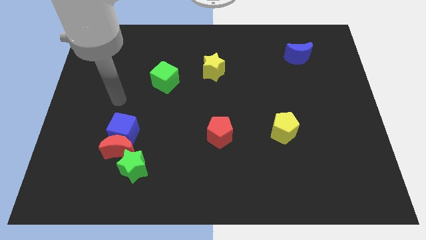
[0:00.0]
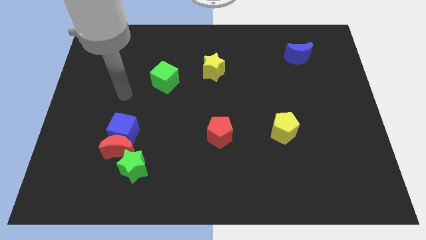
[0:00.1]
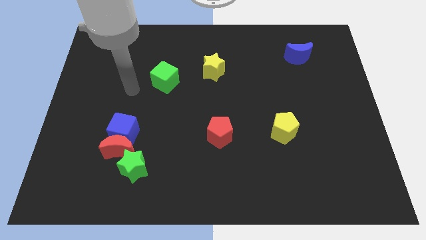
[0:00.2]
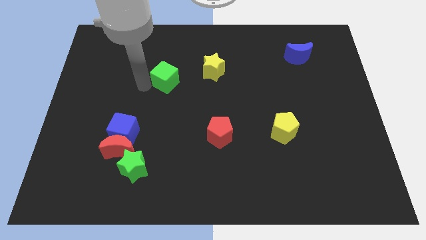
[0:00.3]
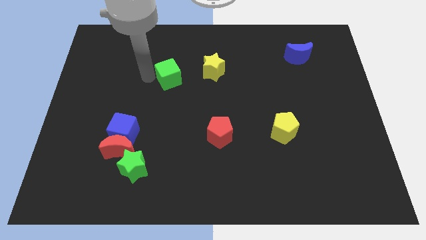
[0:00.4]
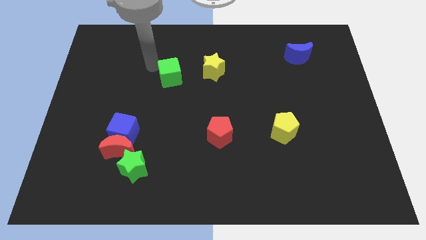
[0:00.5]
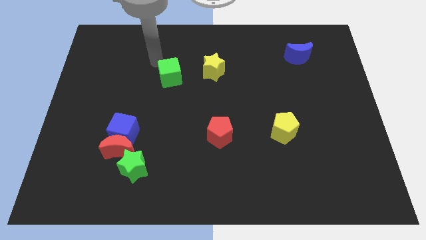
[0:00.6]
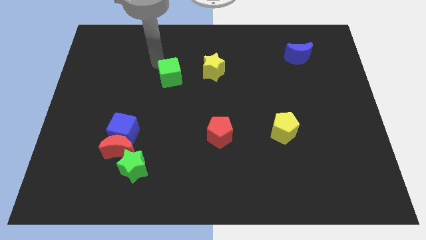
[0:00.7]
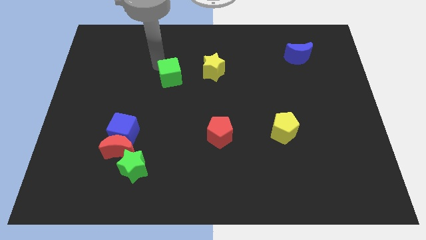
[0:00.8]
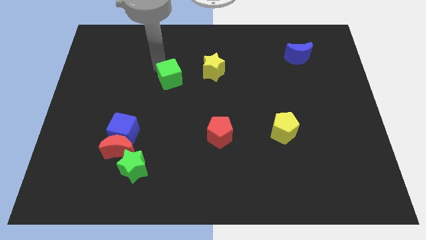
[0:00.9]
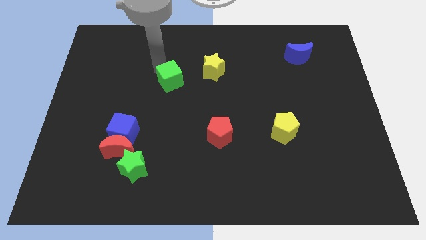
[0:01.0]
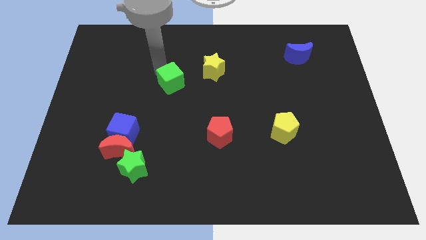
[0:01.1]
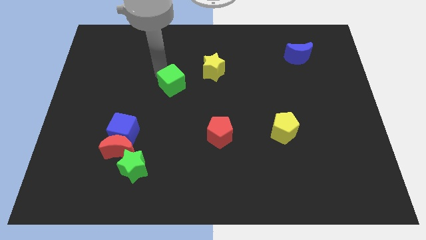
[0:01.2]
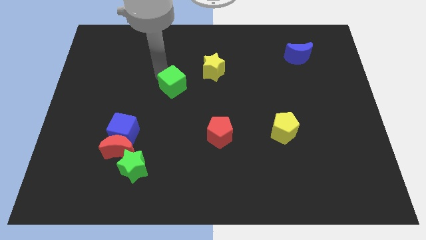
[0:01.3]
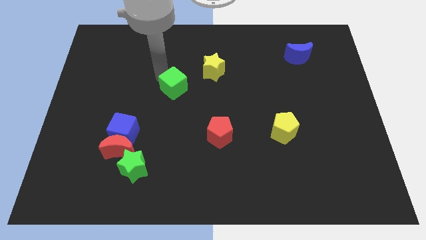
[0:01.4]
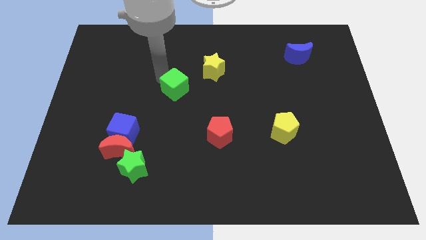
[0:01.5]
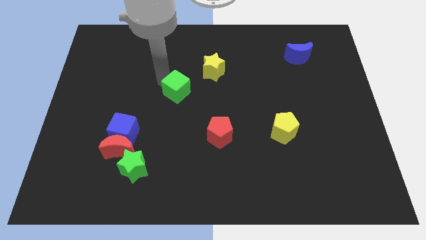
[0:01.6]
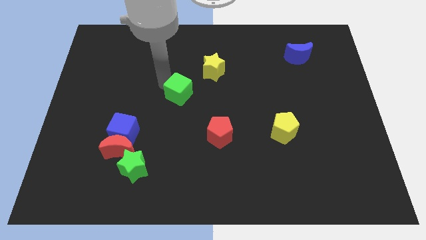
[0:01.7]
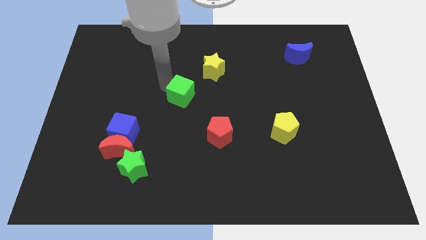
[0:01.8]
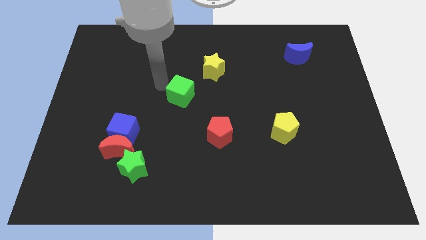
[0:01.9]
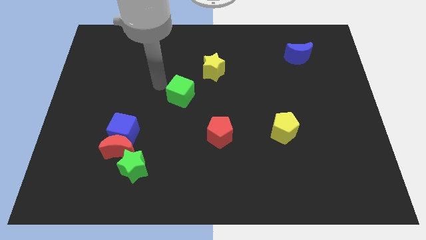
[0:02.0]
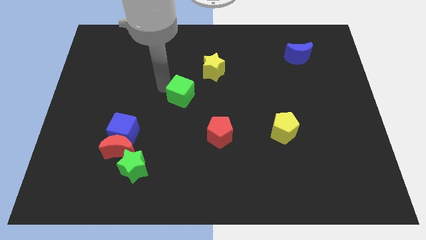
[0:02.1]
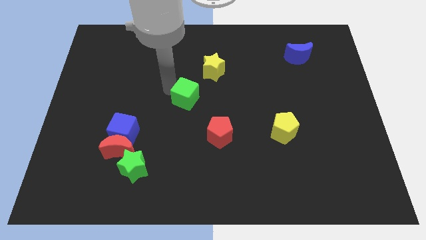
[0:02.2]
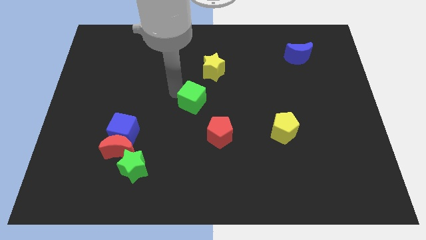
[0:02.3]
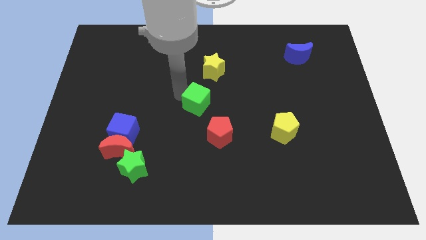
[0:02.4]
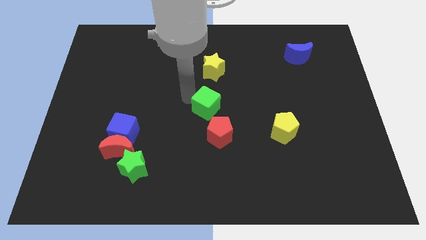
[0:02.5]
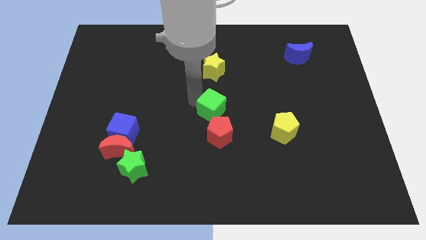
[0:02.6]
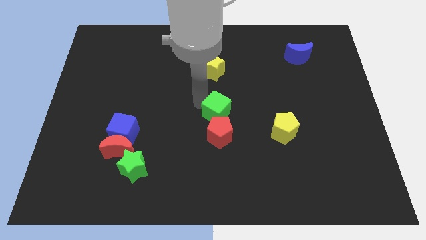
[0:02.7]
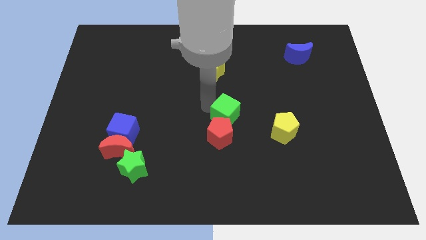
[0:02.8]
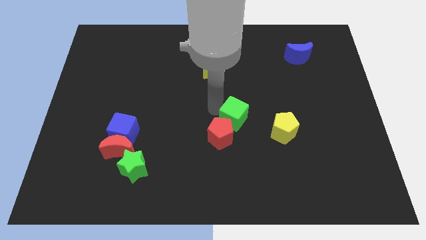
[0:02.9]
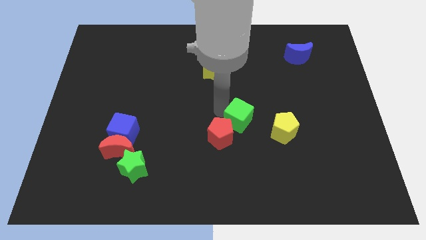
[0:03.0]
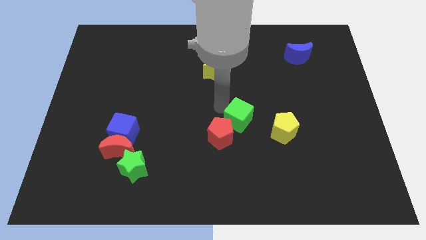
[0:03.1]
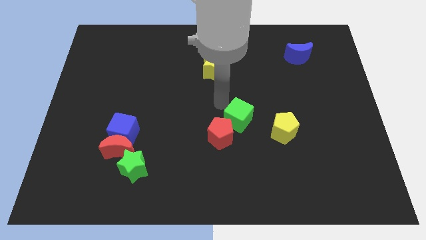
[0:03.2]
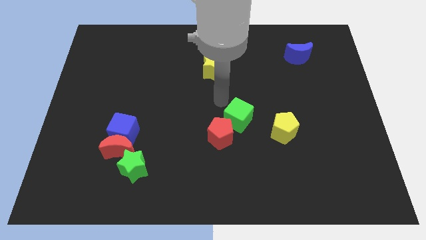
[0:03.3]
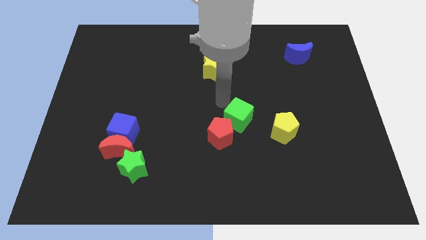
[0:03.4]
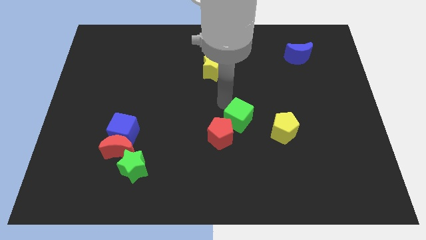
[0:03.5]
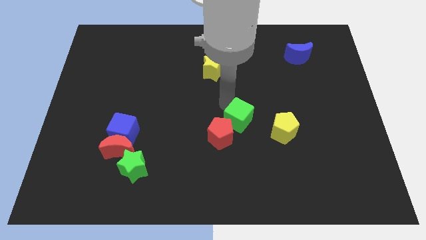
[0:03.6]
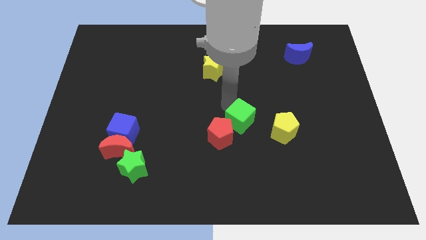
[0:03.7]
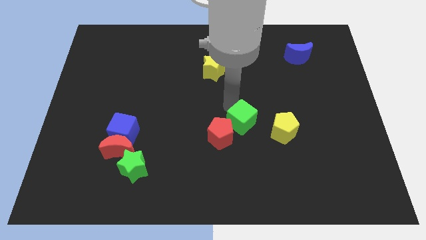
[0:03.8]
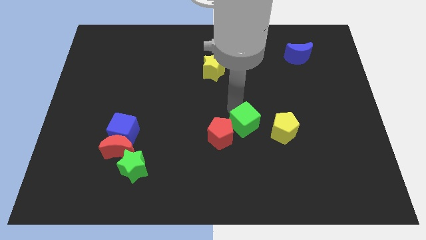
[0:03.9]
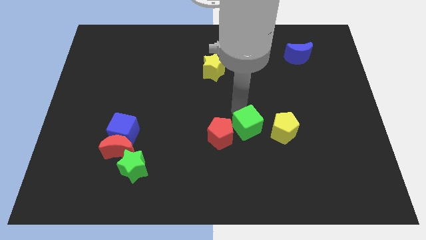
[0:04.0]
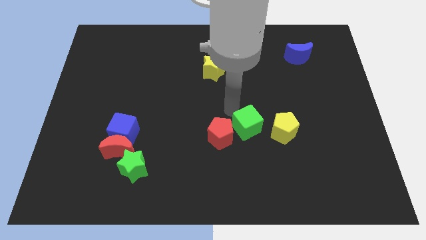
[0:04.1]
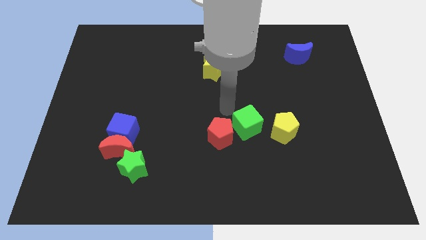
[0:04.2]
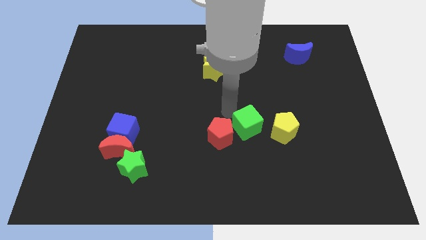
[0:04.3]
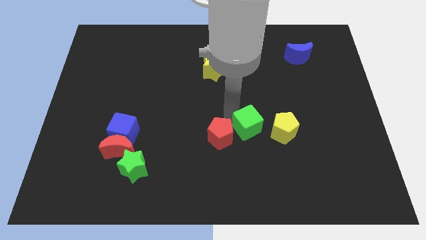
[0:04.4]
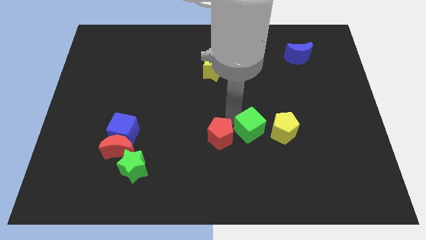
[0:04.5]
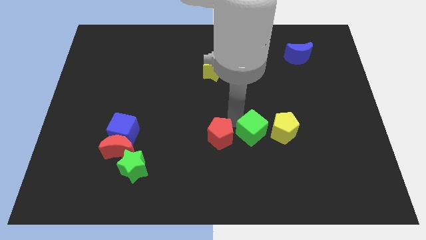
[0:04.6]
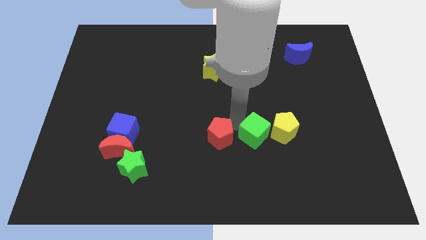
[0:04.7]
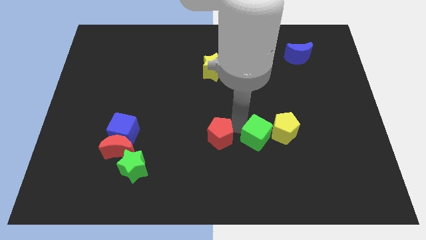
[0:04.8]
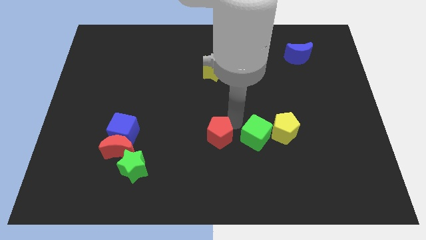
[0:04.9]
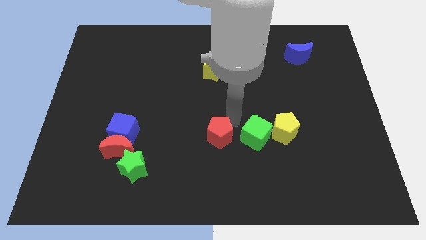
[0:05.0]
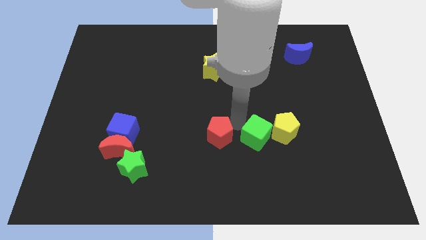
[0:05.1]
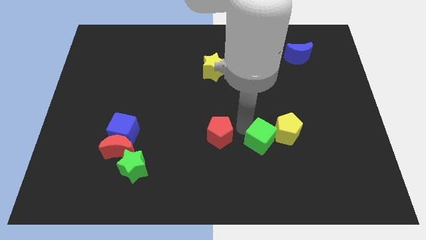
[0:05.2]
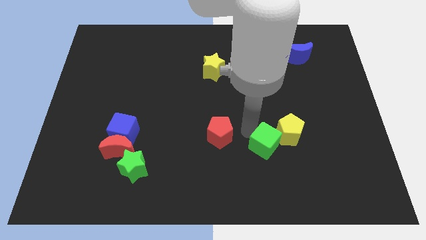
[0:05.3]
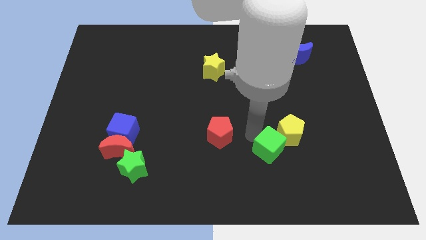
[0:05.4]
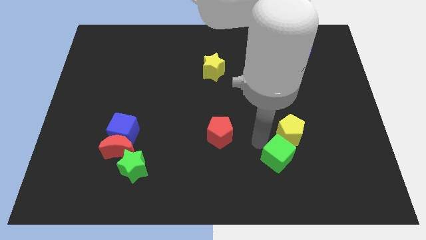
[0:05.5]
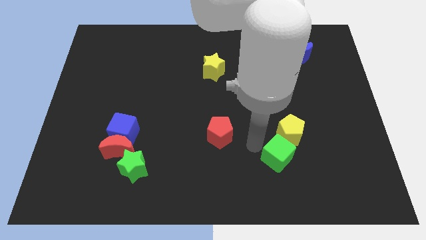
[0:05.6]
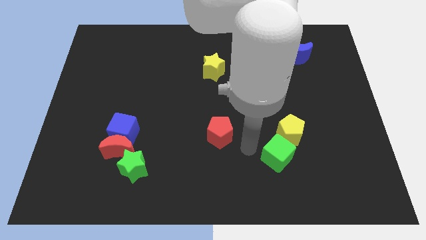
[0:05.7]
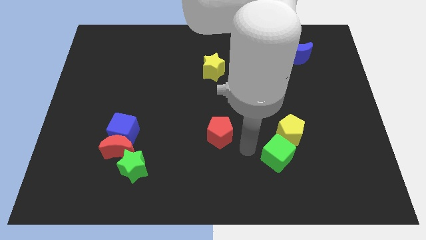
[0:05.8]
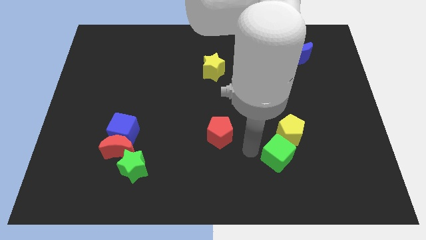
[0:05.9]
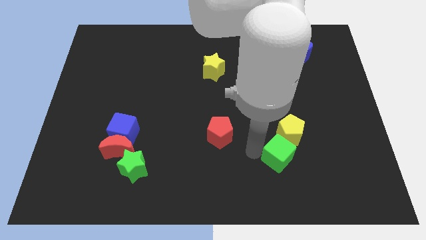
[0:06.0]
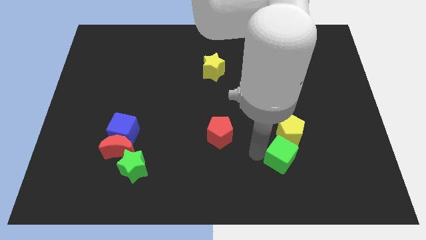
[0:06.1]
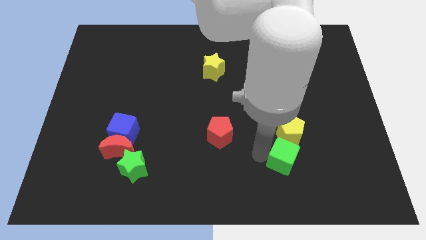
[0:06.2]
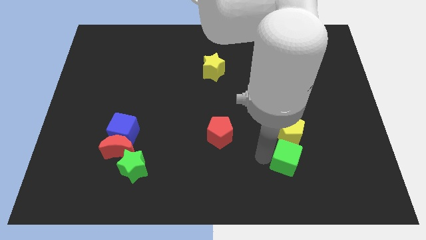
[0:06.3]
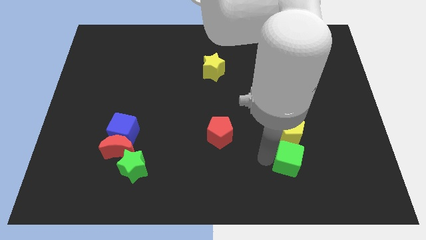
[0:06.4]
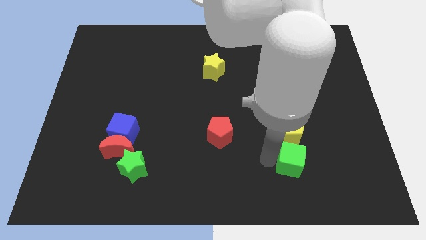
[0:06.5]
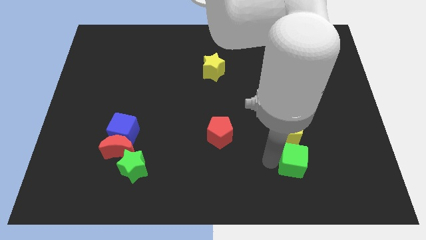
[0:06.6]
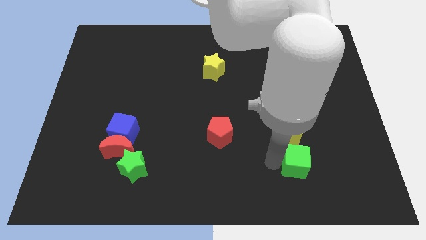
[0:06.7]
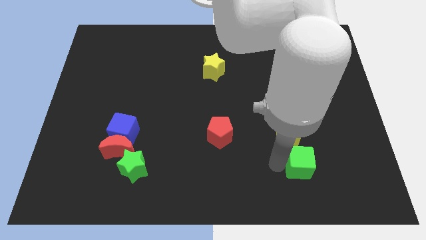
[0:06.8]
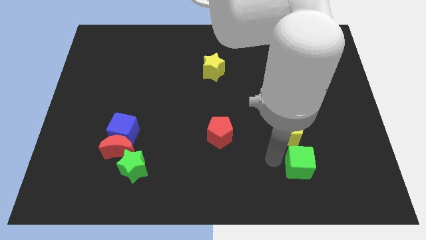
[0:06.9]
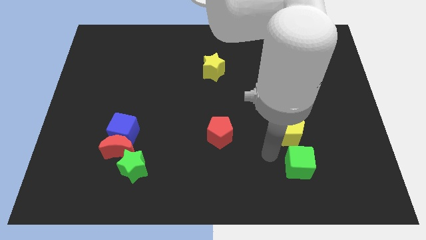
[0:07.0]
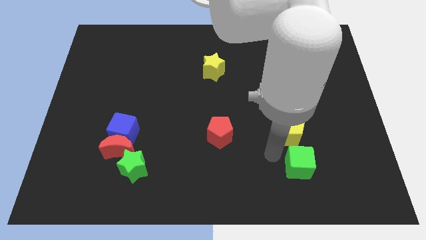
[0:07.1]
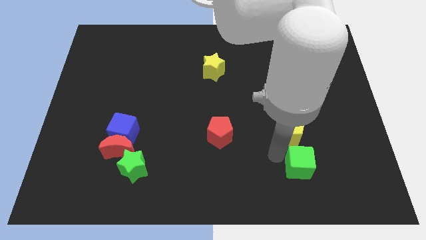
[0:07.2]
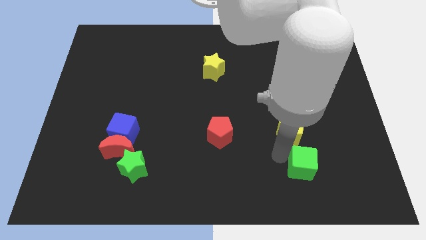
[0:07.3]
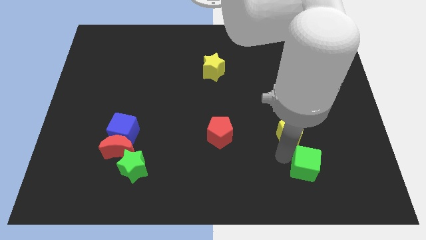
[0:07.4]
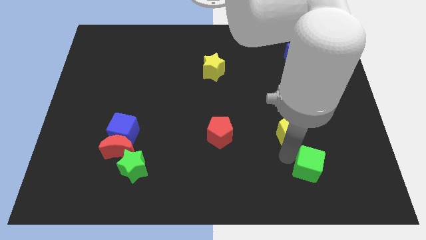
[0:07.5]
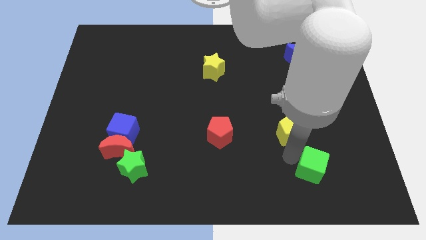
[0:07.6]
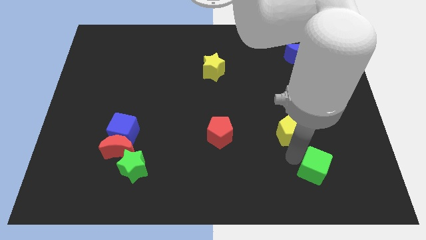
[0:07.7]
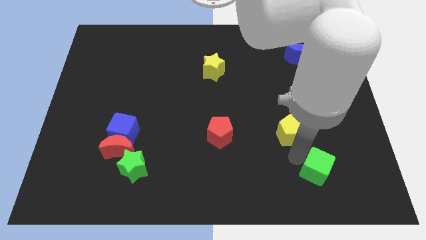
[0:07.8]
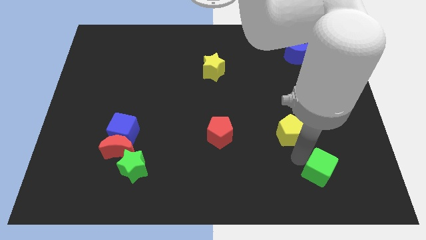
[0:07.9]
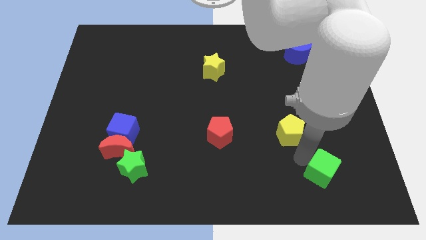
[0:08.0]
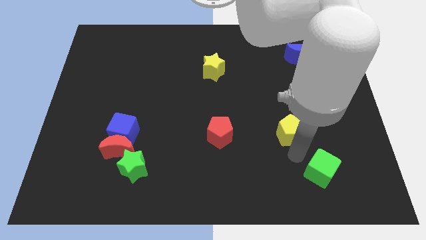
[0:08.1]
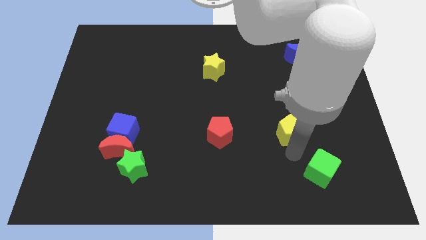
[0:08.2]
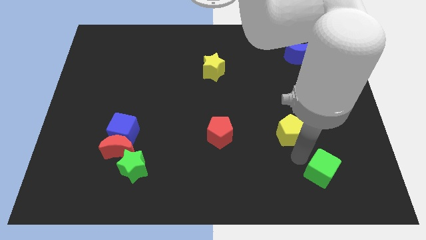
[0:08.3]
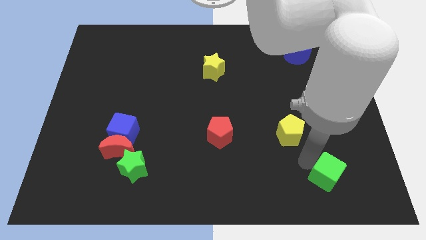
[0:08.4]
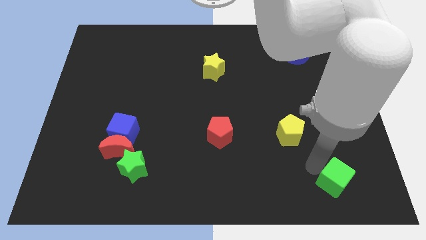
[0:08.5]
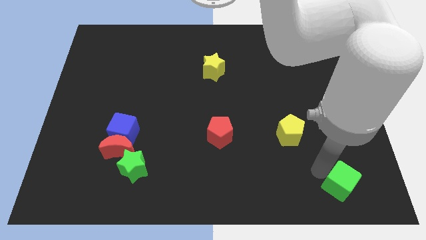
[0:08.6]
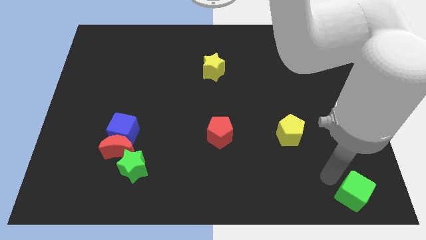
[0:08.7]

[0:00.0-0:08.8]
slide the green cube to the bottom right of the board
